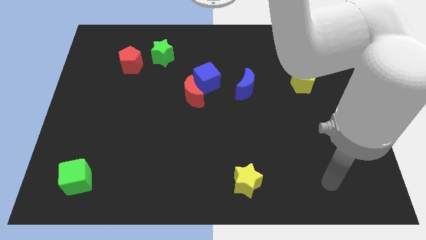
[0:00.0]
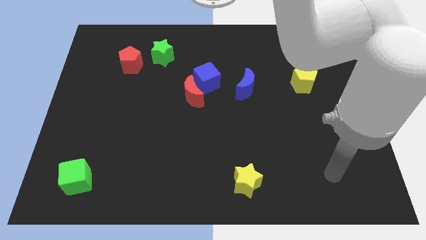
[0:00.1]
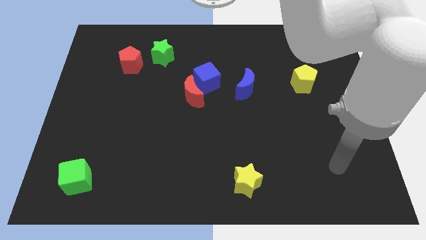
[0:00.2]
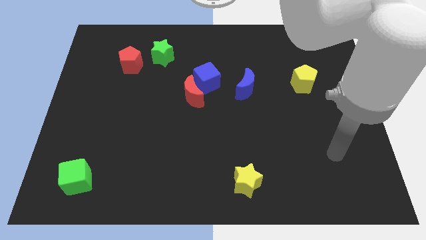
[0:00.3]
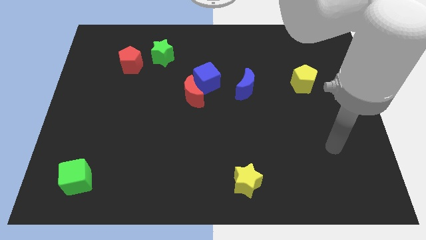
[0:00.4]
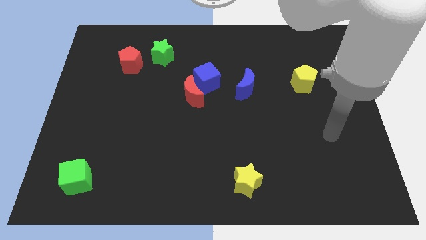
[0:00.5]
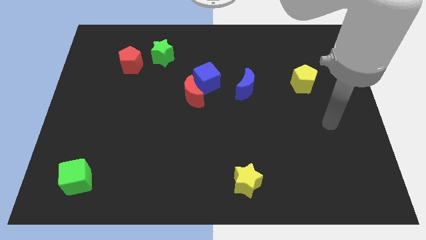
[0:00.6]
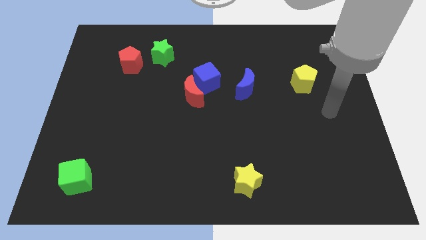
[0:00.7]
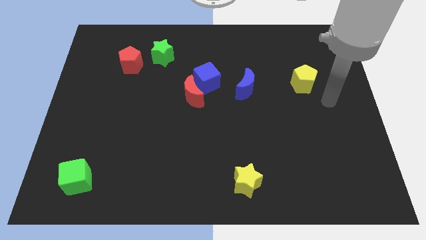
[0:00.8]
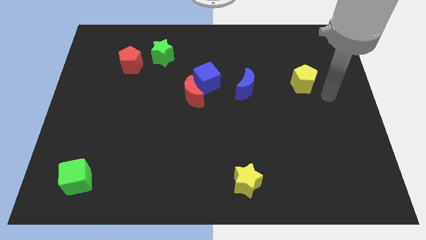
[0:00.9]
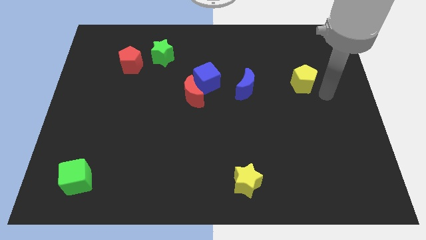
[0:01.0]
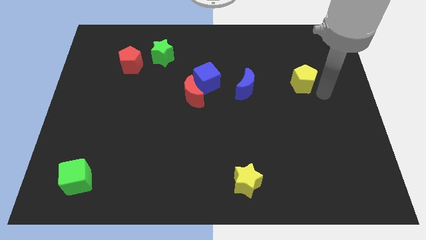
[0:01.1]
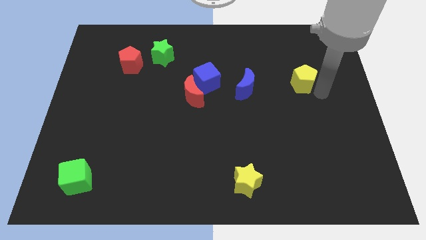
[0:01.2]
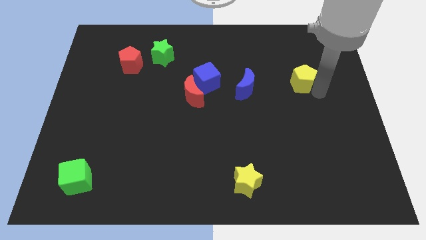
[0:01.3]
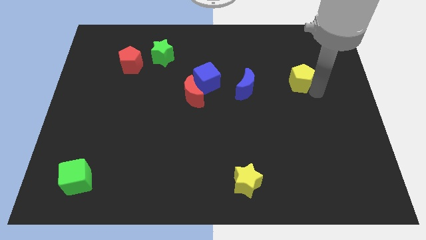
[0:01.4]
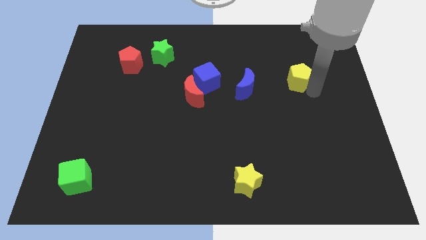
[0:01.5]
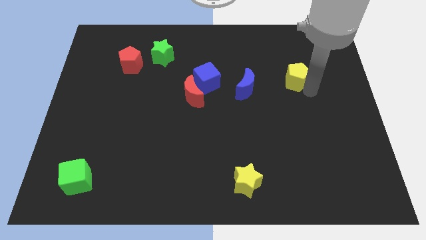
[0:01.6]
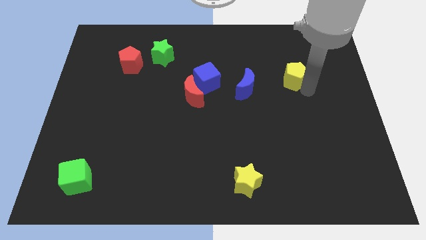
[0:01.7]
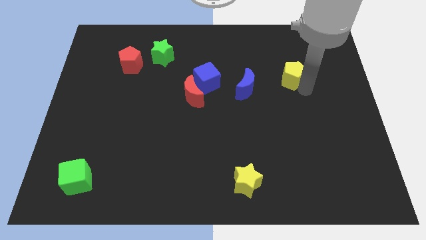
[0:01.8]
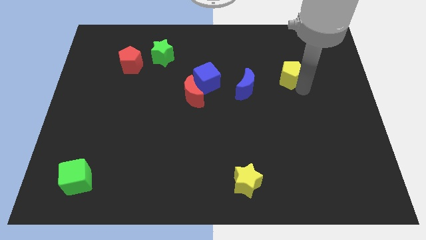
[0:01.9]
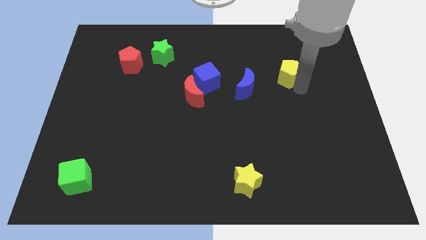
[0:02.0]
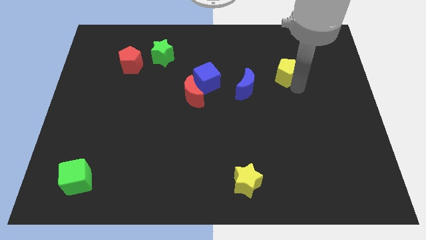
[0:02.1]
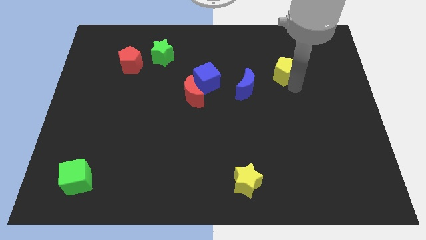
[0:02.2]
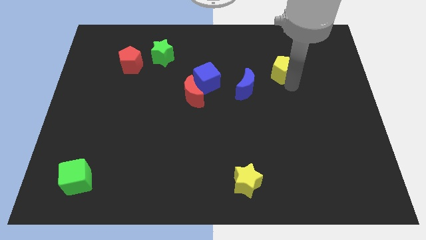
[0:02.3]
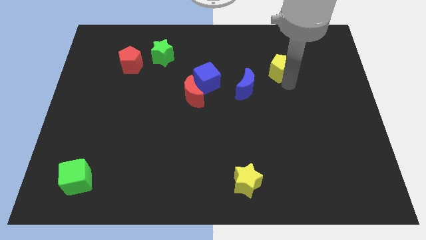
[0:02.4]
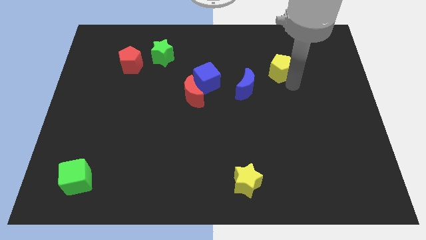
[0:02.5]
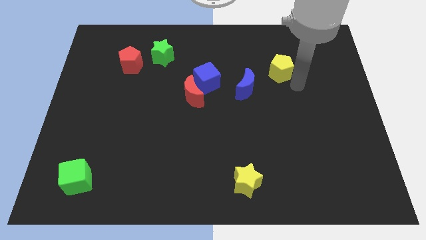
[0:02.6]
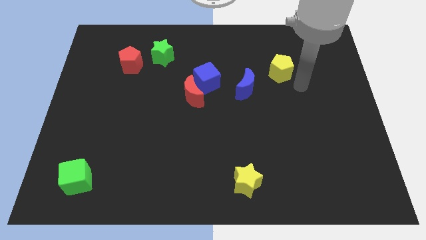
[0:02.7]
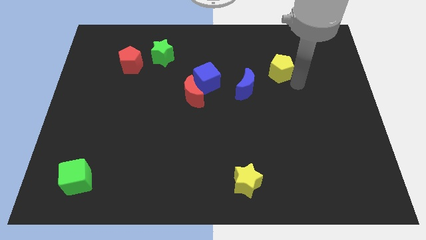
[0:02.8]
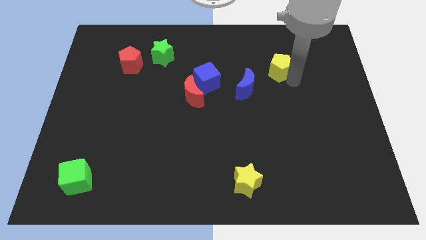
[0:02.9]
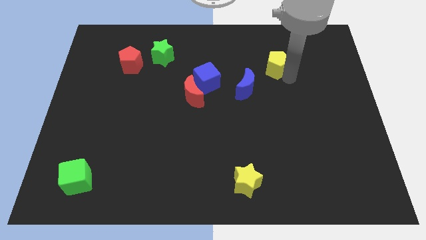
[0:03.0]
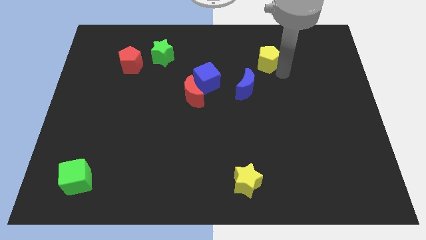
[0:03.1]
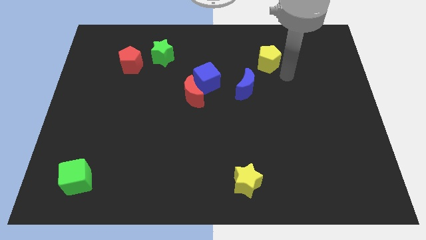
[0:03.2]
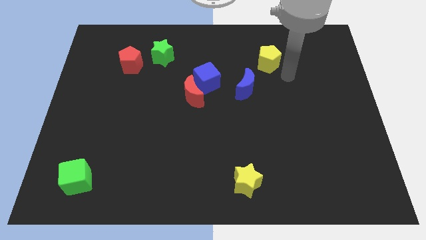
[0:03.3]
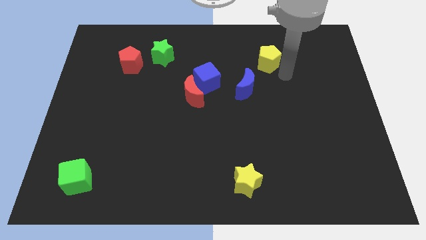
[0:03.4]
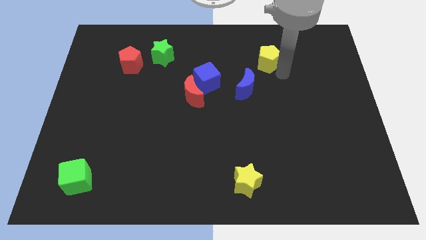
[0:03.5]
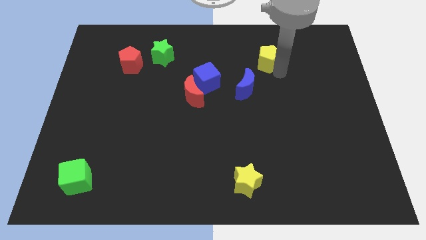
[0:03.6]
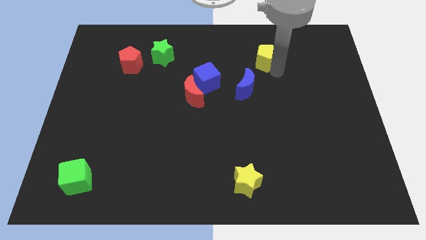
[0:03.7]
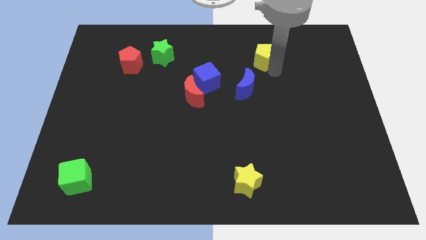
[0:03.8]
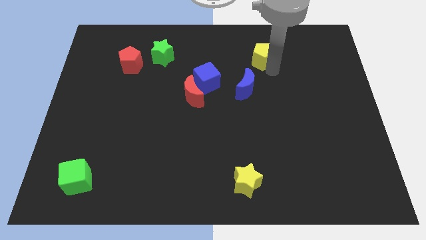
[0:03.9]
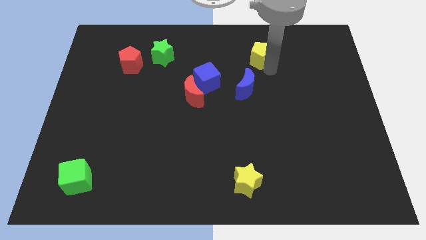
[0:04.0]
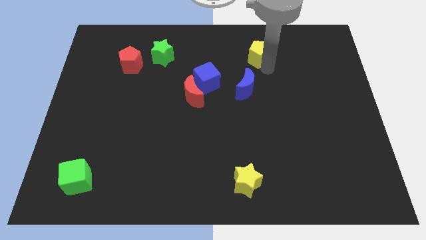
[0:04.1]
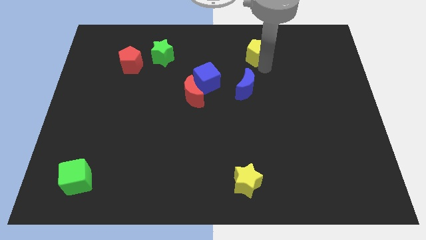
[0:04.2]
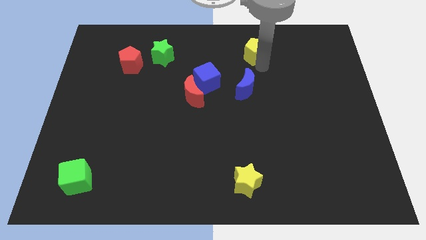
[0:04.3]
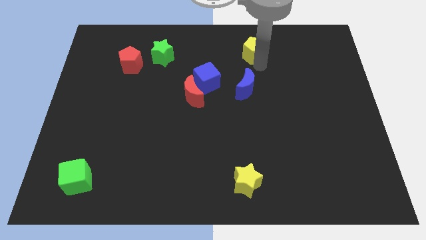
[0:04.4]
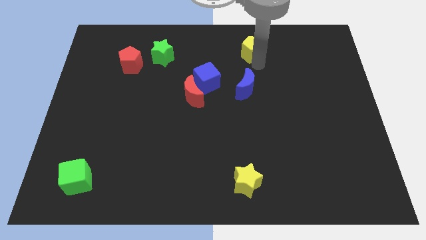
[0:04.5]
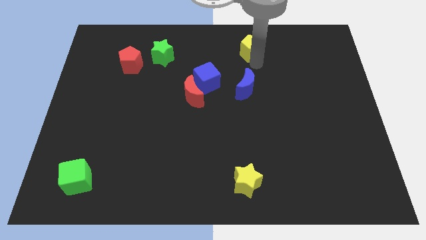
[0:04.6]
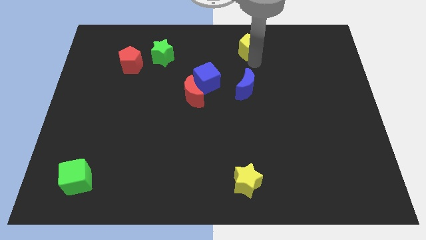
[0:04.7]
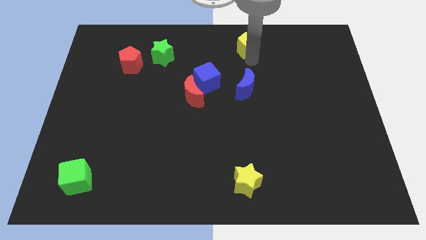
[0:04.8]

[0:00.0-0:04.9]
move the yellow pentagon to the top side

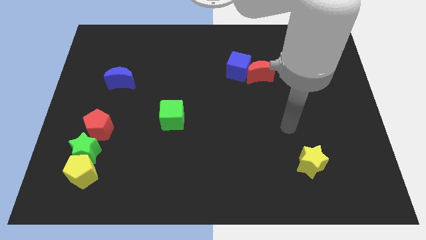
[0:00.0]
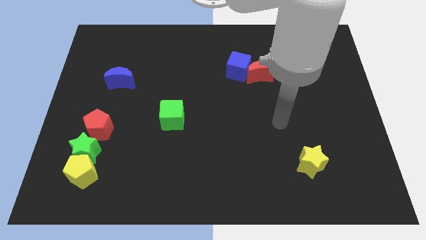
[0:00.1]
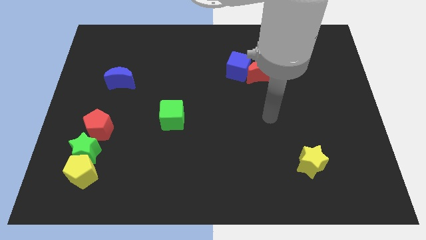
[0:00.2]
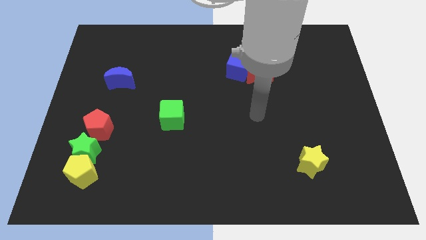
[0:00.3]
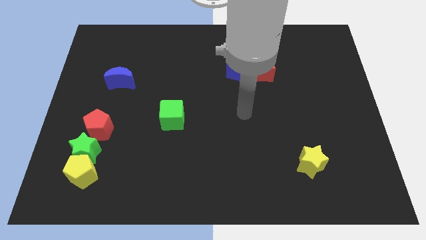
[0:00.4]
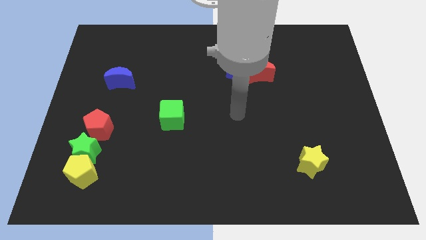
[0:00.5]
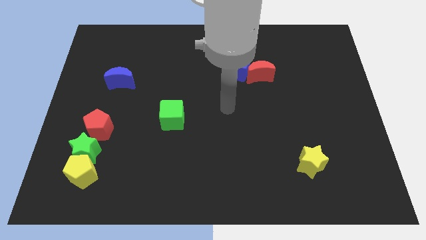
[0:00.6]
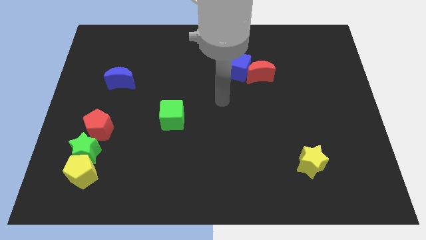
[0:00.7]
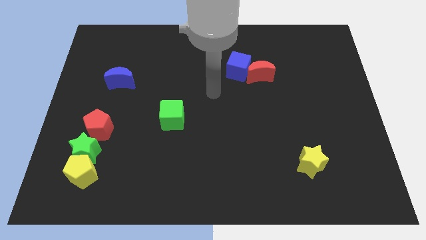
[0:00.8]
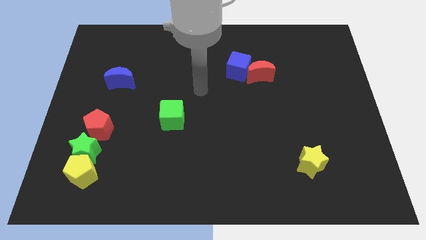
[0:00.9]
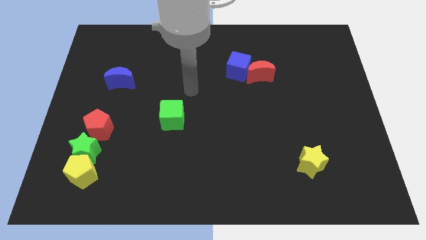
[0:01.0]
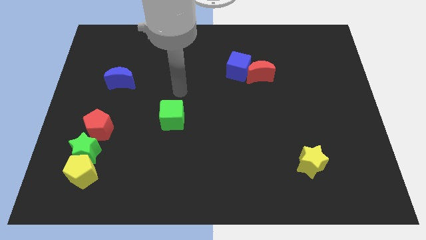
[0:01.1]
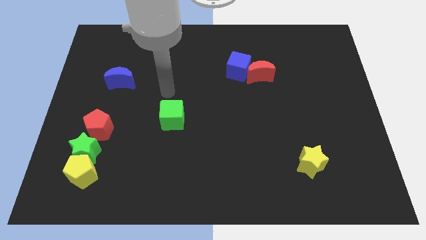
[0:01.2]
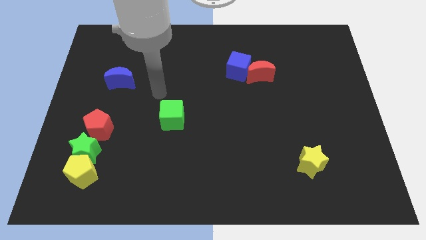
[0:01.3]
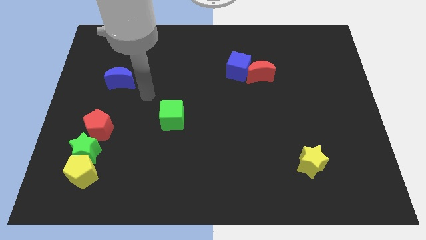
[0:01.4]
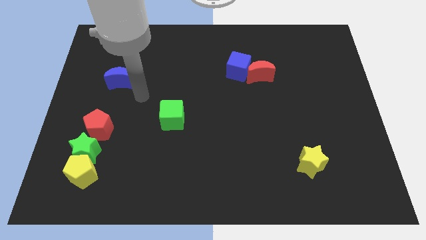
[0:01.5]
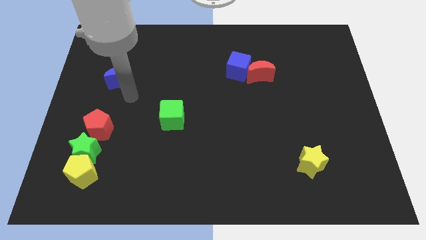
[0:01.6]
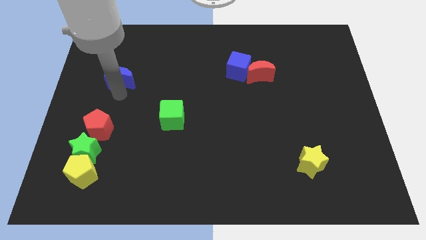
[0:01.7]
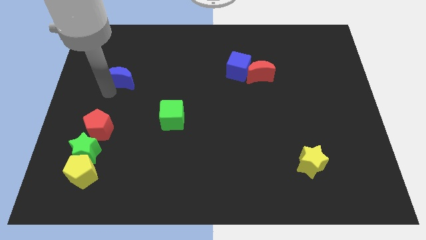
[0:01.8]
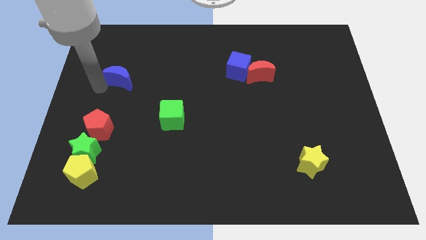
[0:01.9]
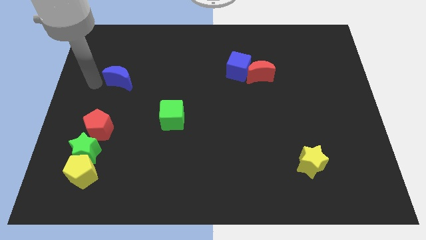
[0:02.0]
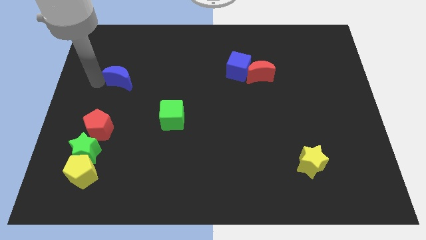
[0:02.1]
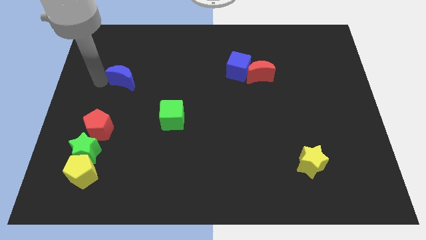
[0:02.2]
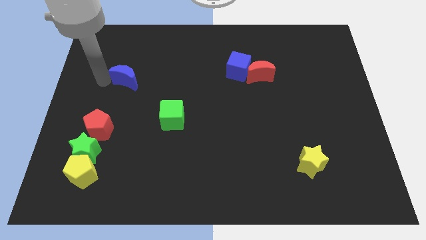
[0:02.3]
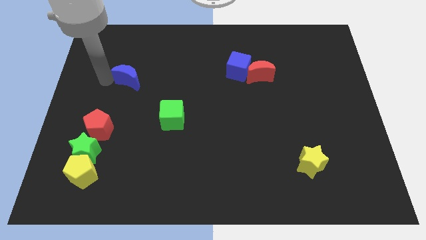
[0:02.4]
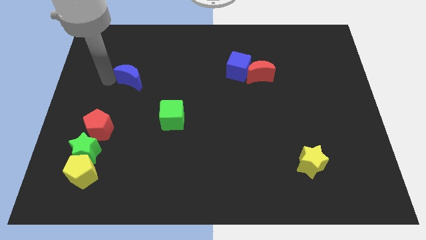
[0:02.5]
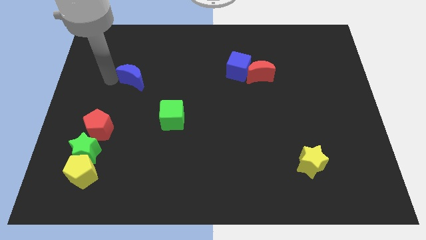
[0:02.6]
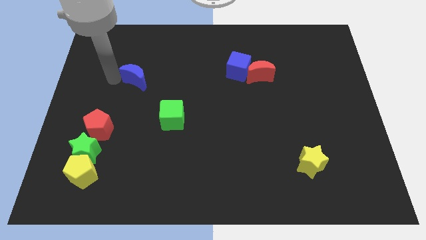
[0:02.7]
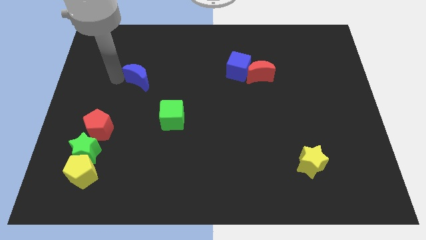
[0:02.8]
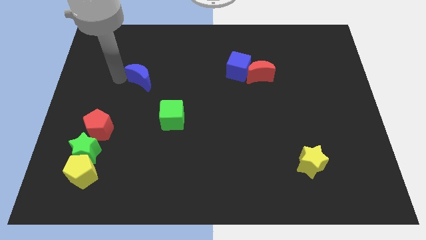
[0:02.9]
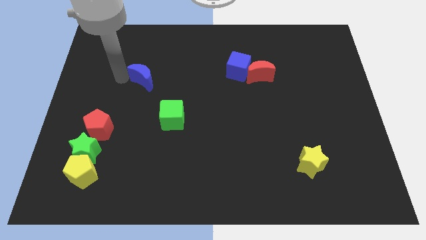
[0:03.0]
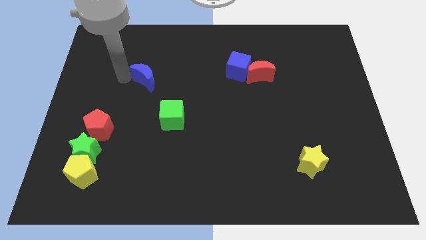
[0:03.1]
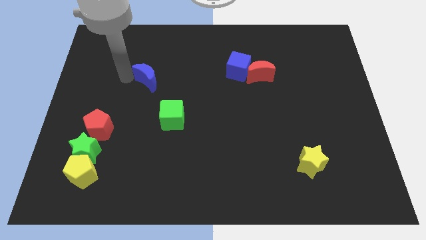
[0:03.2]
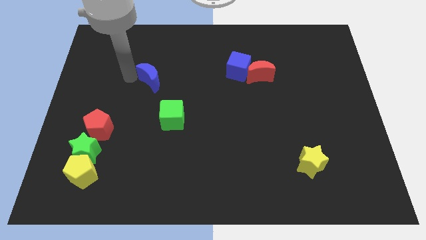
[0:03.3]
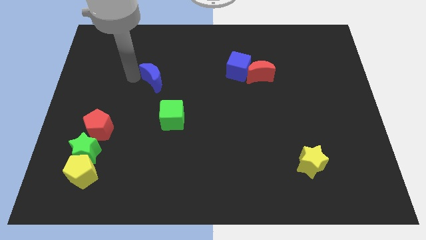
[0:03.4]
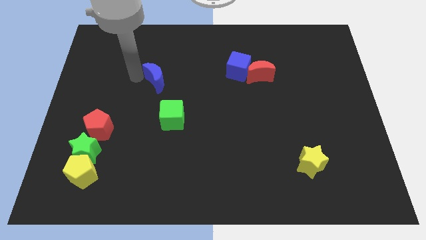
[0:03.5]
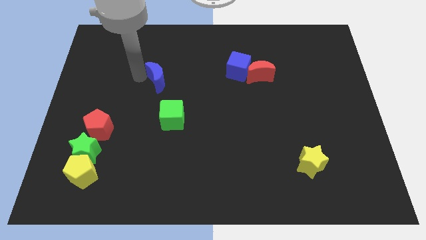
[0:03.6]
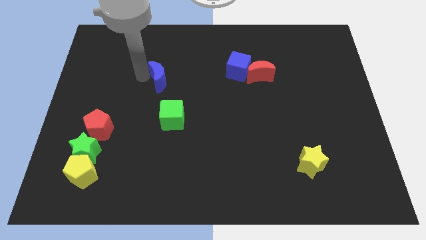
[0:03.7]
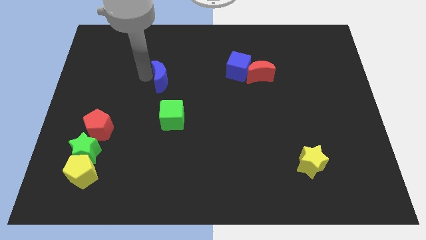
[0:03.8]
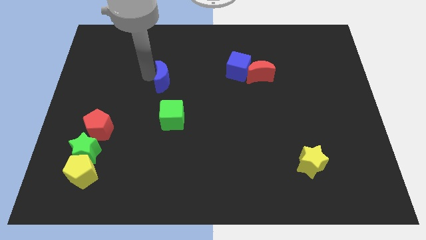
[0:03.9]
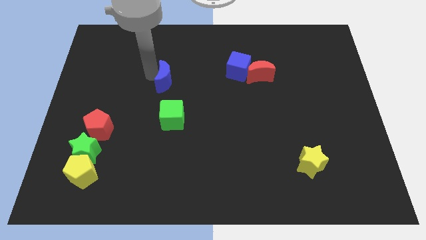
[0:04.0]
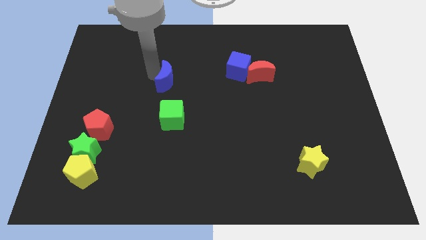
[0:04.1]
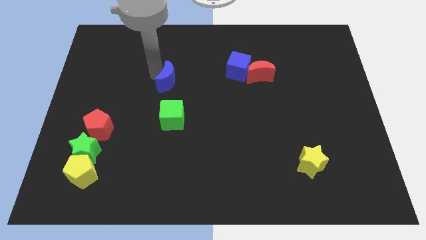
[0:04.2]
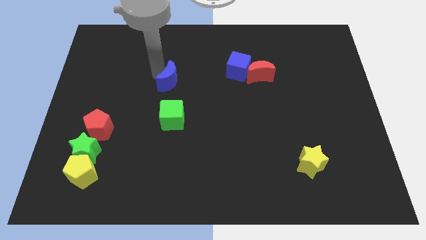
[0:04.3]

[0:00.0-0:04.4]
move the blue moon to the middle of the board
